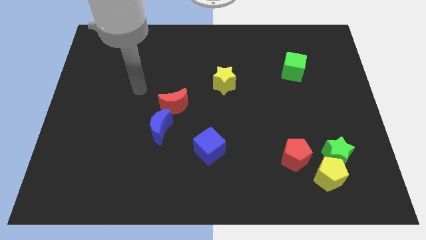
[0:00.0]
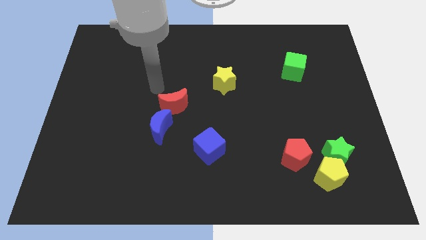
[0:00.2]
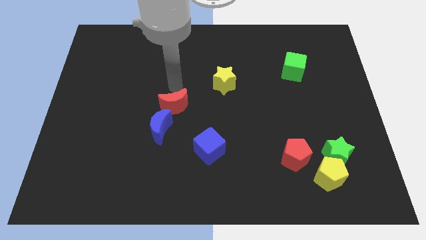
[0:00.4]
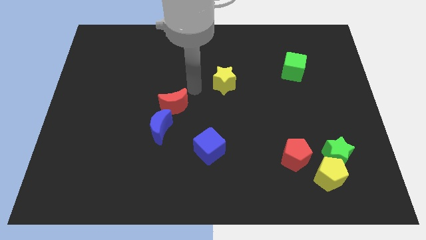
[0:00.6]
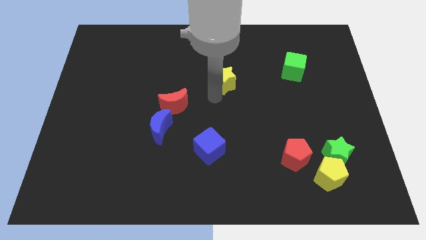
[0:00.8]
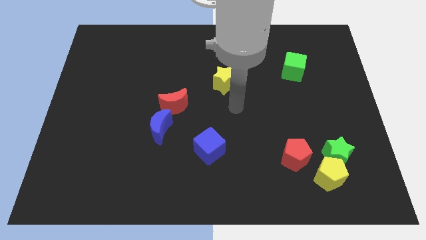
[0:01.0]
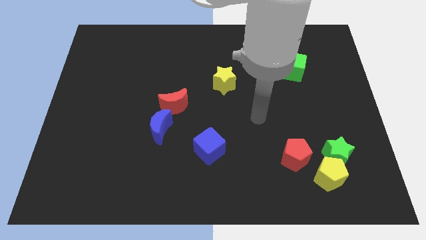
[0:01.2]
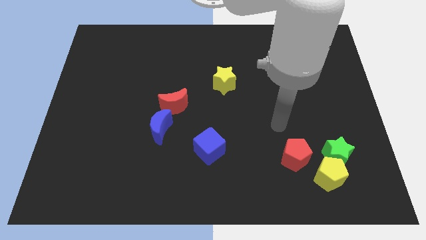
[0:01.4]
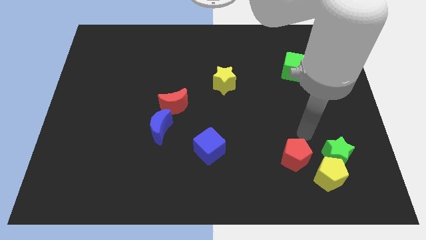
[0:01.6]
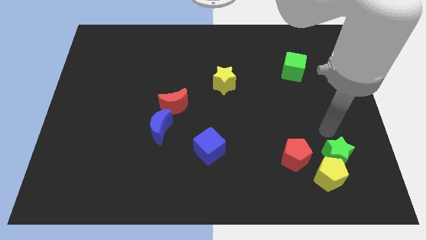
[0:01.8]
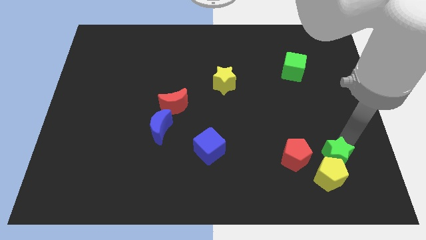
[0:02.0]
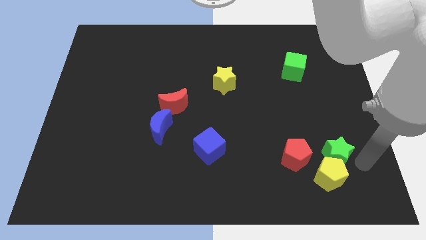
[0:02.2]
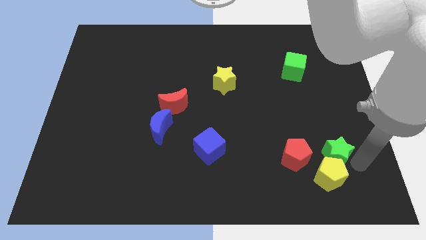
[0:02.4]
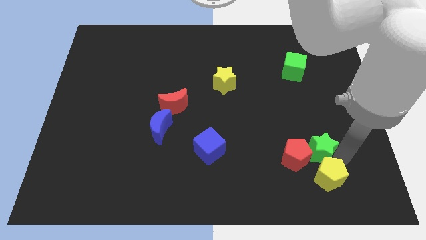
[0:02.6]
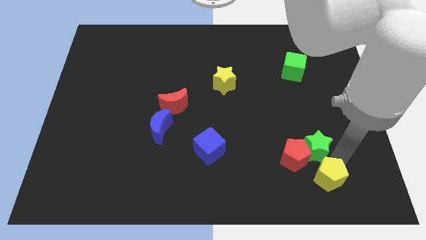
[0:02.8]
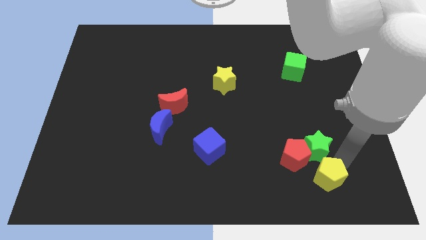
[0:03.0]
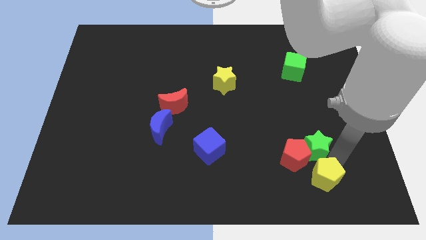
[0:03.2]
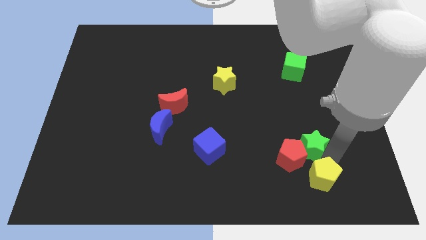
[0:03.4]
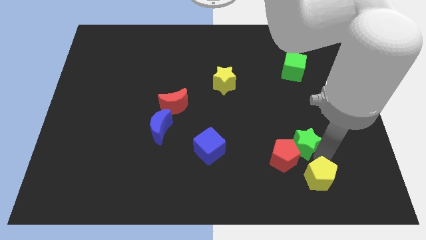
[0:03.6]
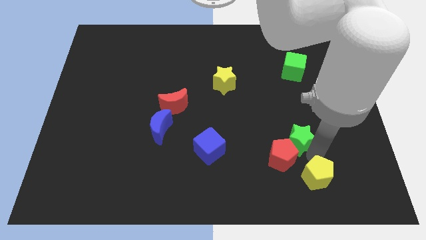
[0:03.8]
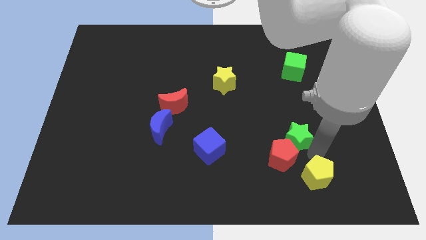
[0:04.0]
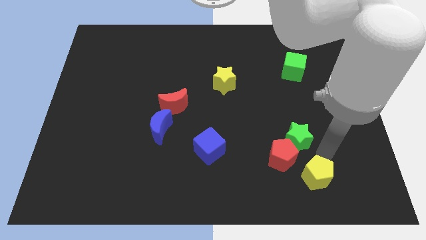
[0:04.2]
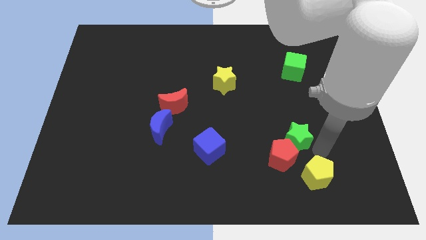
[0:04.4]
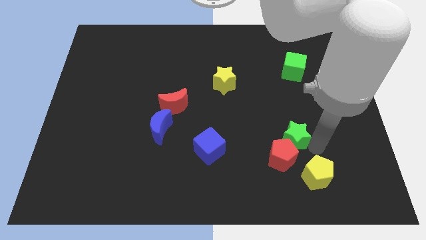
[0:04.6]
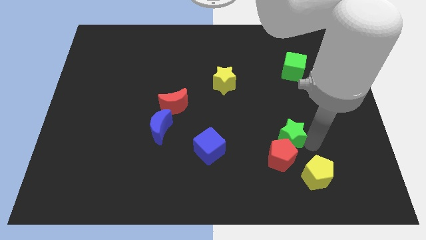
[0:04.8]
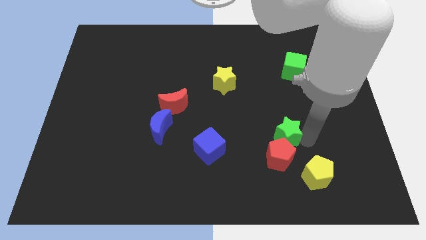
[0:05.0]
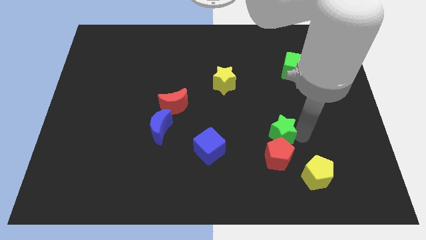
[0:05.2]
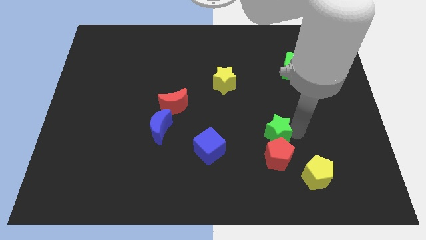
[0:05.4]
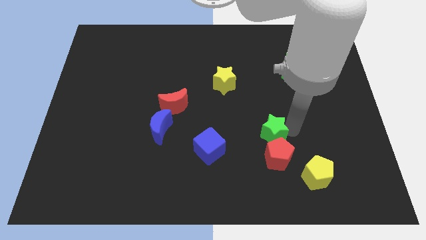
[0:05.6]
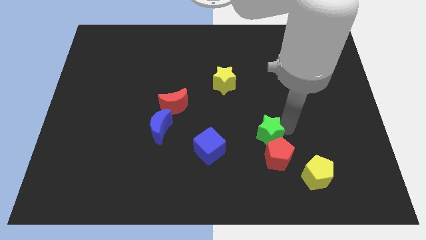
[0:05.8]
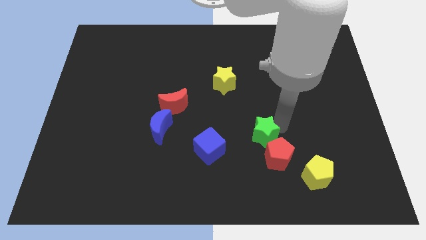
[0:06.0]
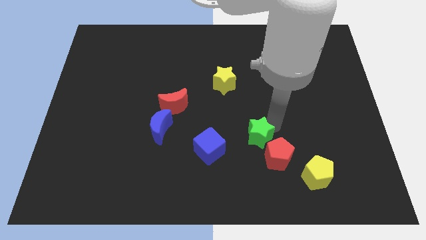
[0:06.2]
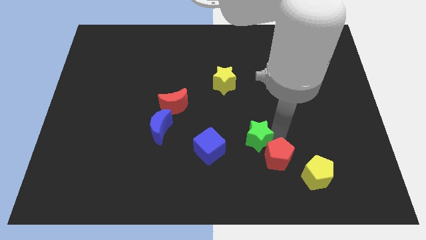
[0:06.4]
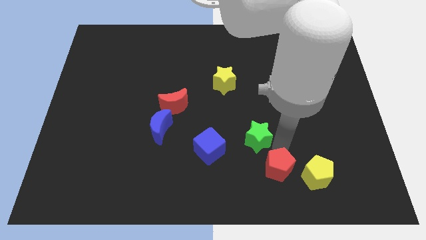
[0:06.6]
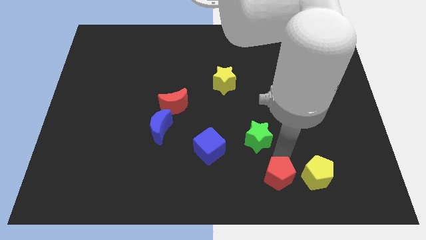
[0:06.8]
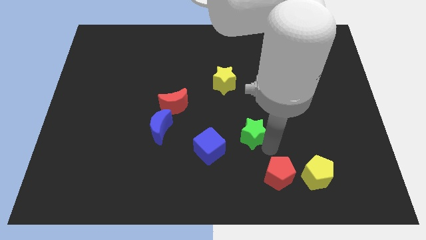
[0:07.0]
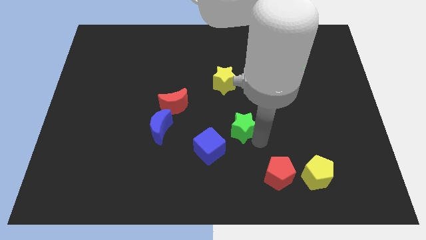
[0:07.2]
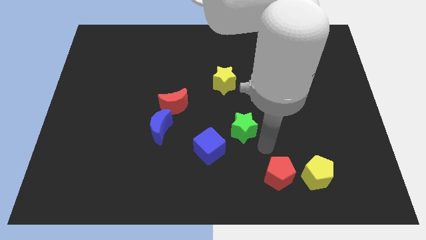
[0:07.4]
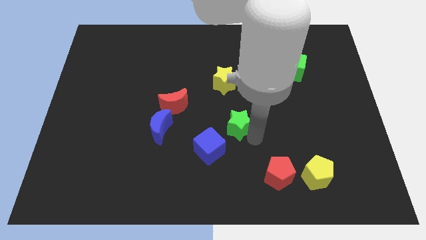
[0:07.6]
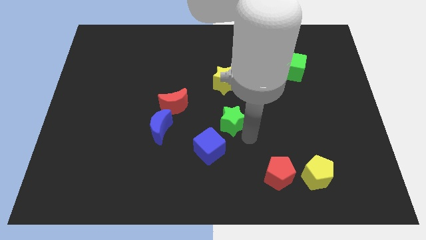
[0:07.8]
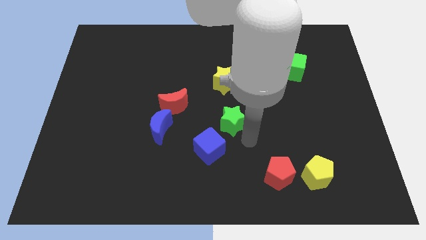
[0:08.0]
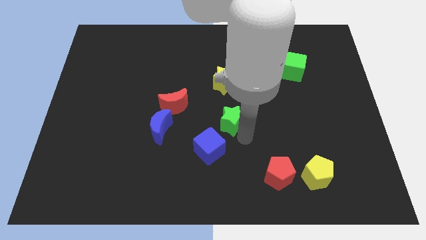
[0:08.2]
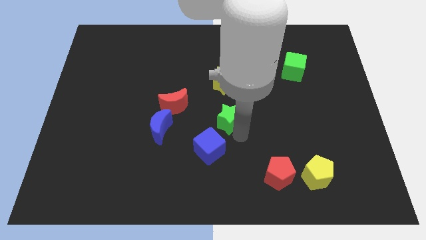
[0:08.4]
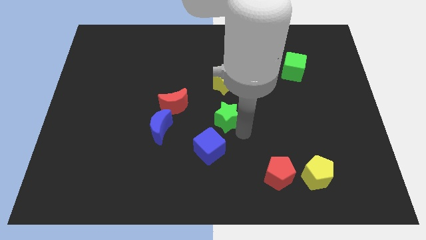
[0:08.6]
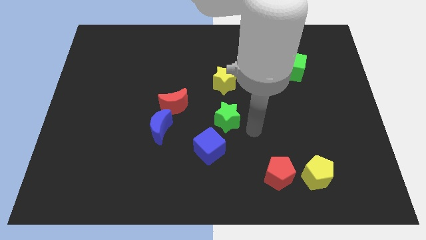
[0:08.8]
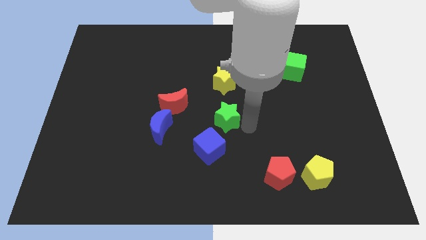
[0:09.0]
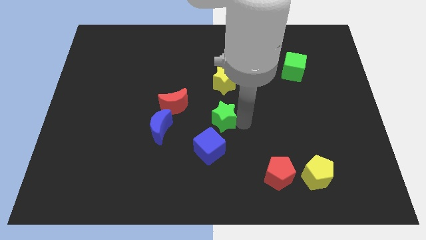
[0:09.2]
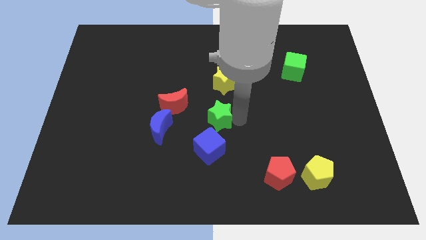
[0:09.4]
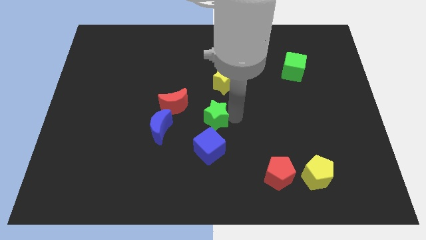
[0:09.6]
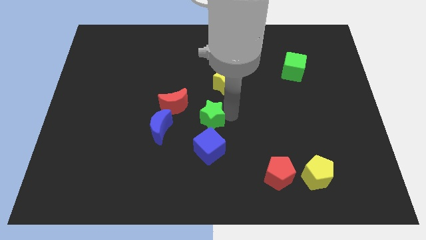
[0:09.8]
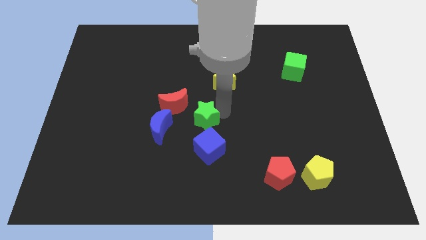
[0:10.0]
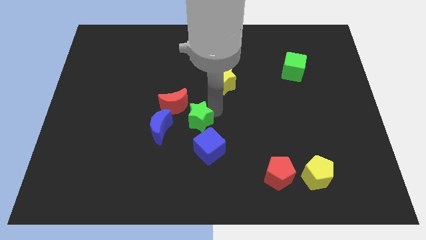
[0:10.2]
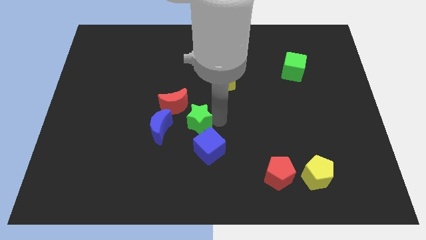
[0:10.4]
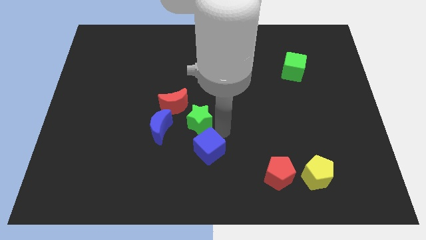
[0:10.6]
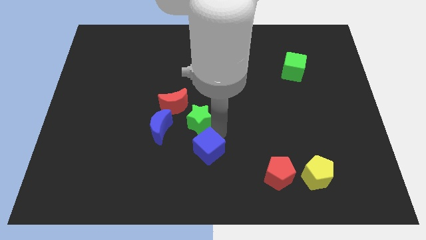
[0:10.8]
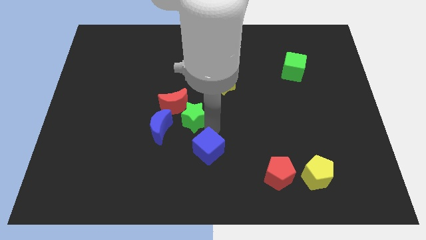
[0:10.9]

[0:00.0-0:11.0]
push the green star next to the red moon

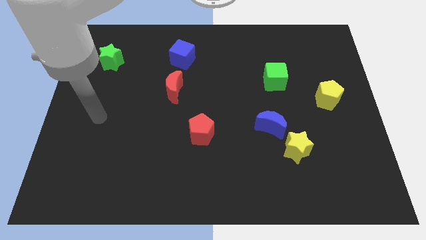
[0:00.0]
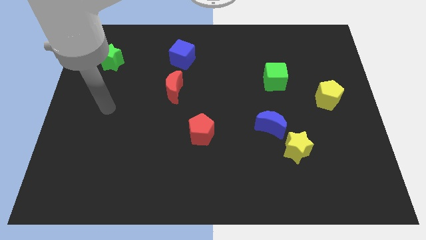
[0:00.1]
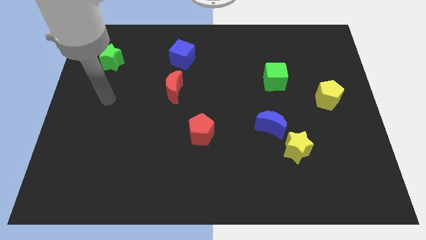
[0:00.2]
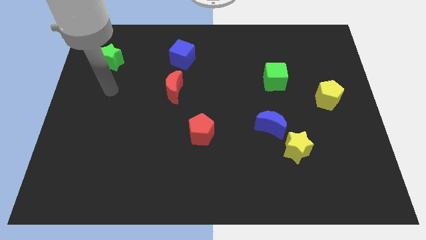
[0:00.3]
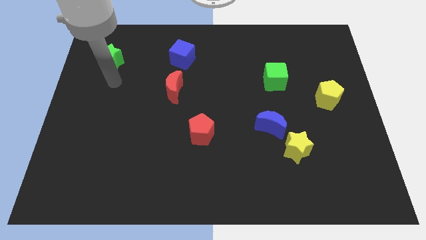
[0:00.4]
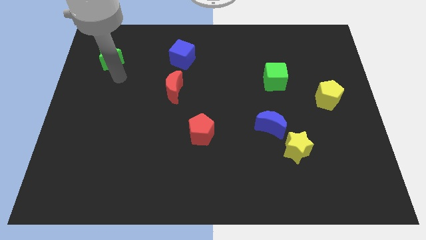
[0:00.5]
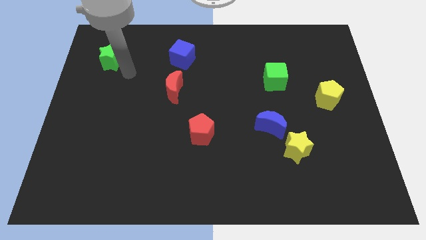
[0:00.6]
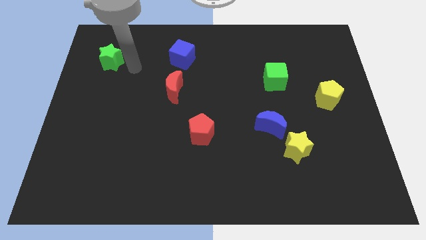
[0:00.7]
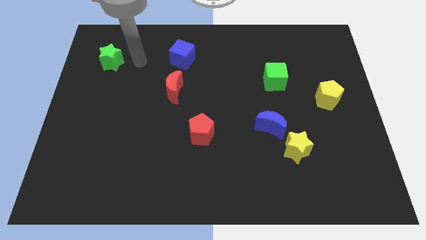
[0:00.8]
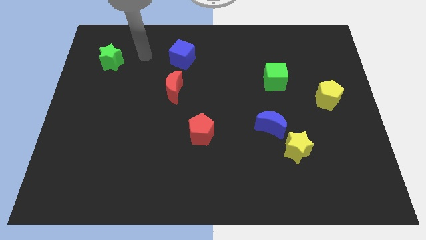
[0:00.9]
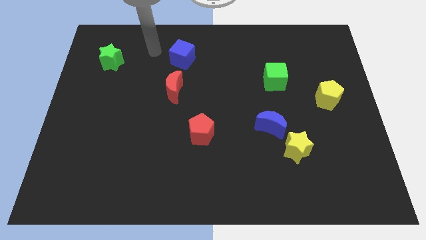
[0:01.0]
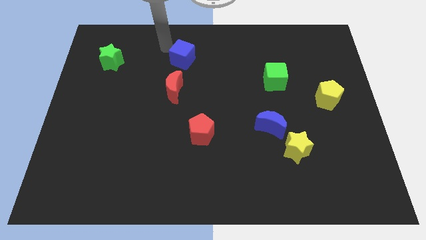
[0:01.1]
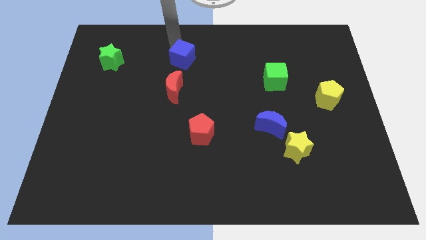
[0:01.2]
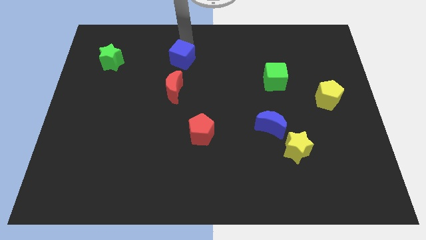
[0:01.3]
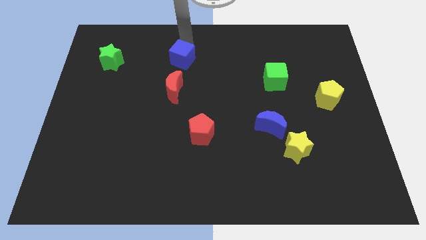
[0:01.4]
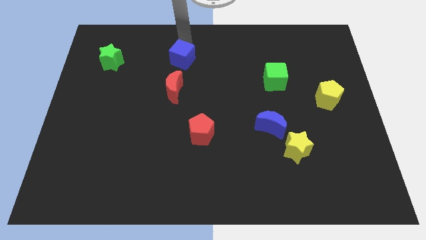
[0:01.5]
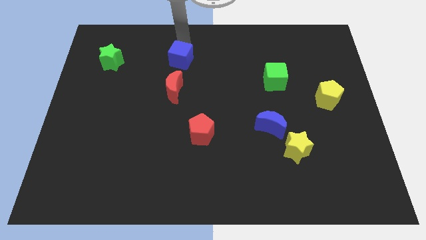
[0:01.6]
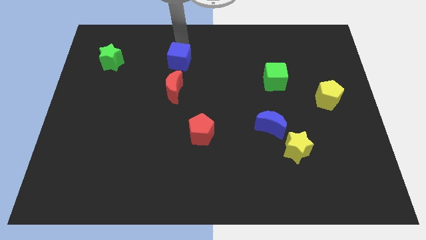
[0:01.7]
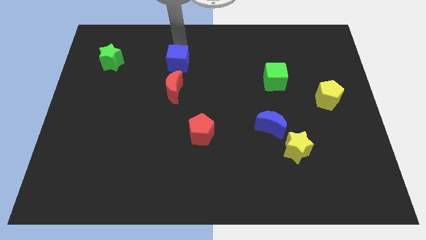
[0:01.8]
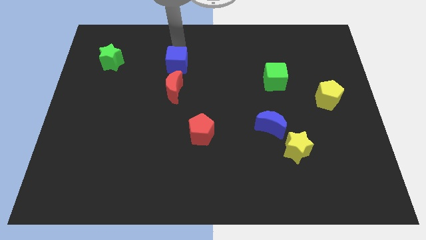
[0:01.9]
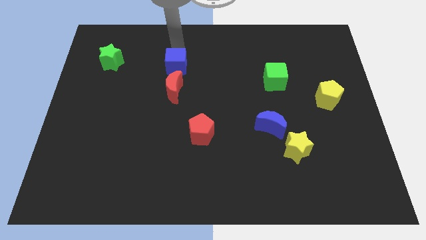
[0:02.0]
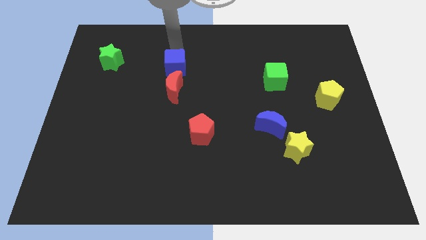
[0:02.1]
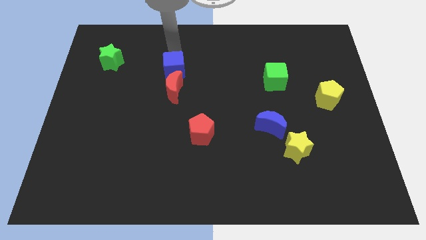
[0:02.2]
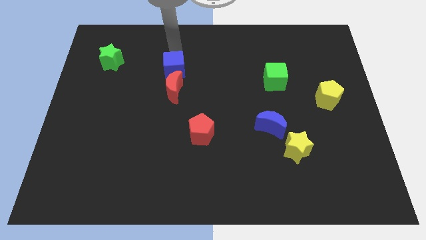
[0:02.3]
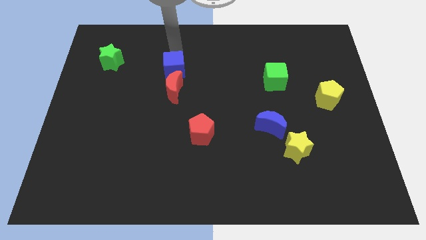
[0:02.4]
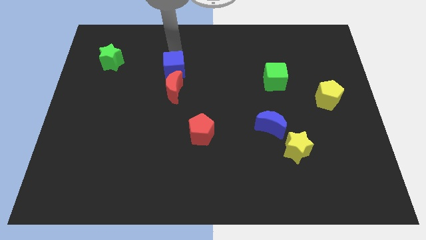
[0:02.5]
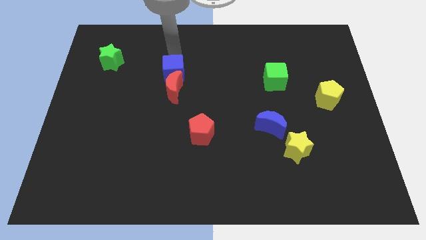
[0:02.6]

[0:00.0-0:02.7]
push the blue cube to the red moon
